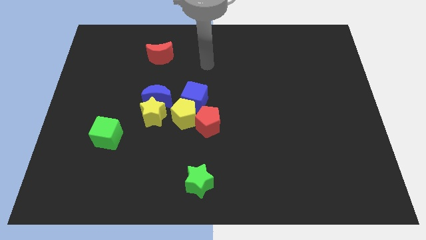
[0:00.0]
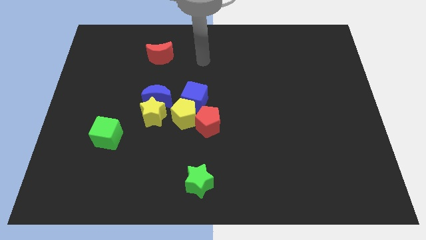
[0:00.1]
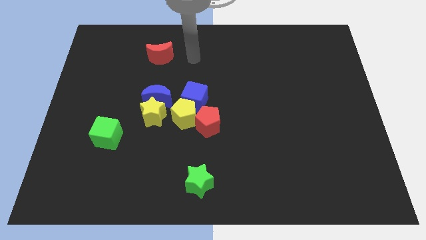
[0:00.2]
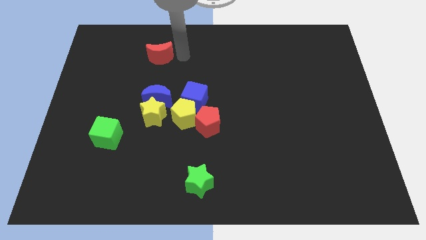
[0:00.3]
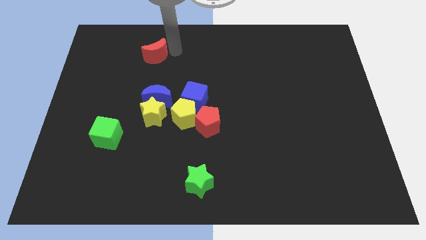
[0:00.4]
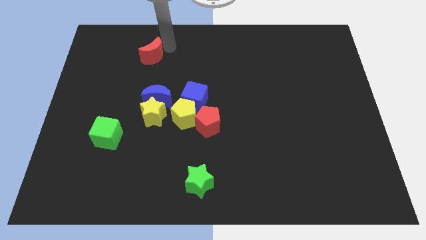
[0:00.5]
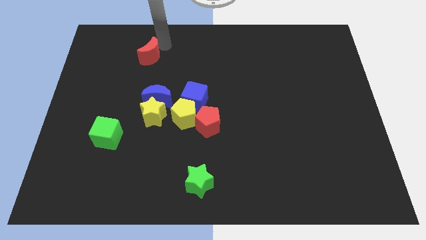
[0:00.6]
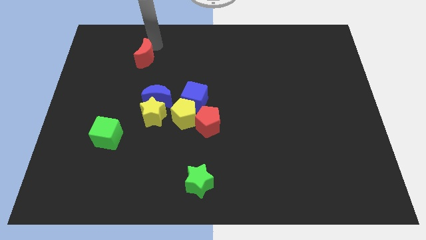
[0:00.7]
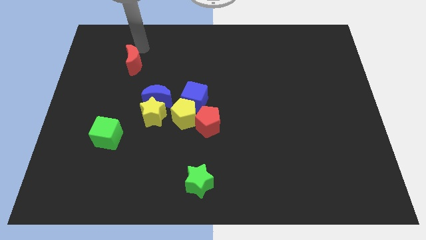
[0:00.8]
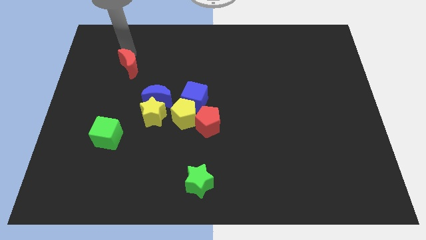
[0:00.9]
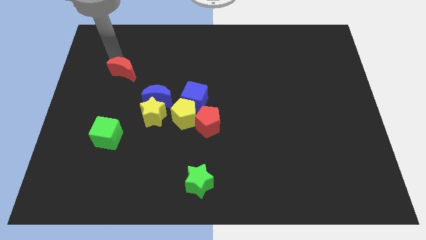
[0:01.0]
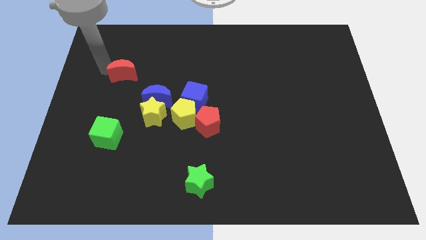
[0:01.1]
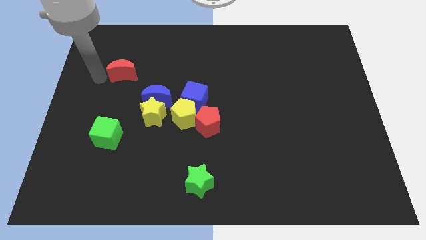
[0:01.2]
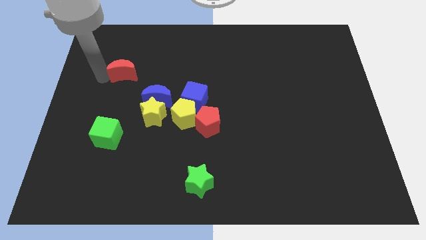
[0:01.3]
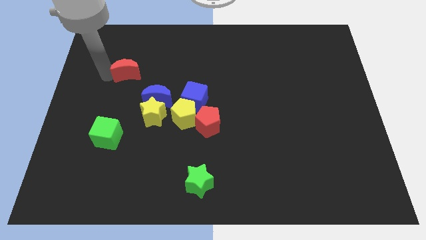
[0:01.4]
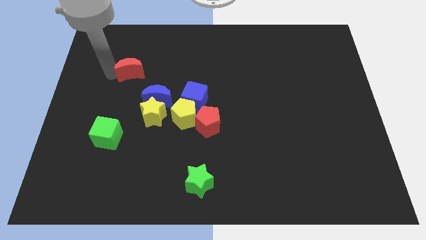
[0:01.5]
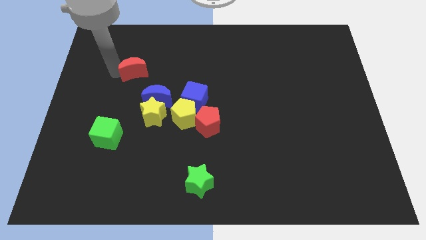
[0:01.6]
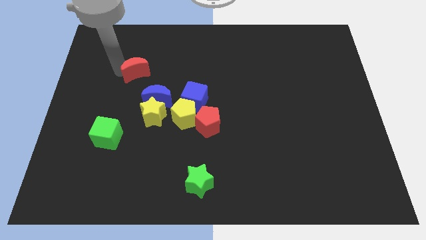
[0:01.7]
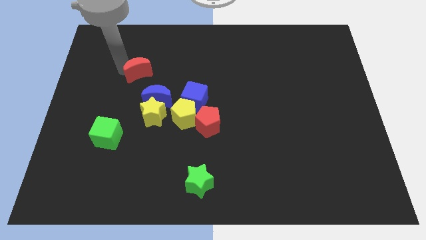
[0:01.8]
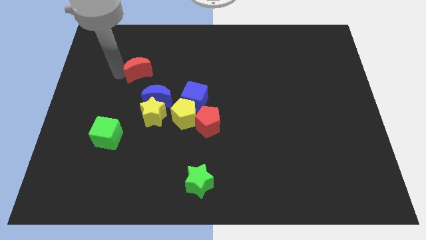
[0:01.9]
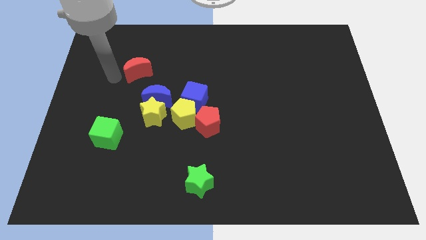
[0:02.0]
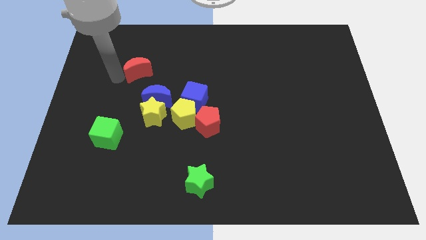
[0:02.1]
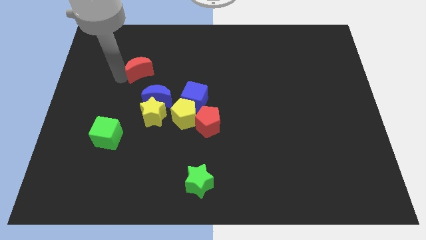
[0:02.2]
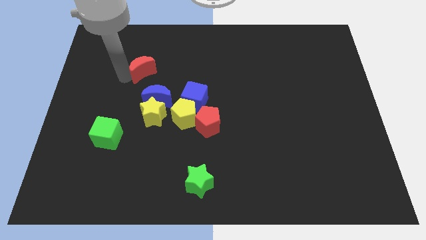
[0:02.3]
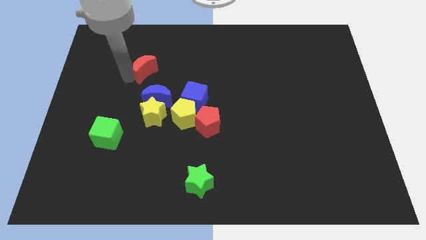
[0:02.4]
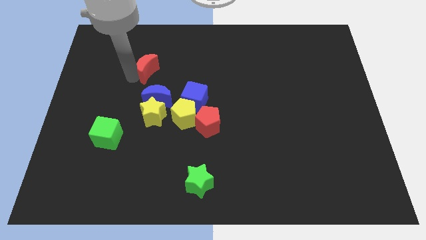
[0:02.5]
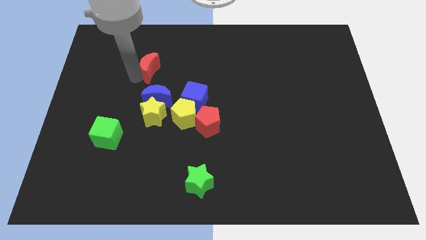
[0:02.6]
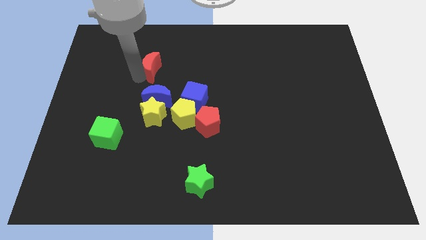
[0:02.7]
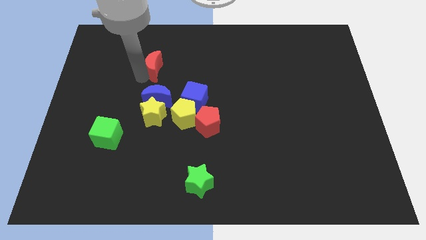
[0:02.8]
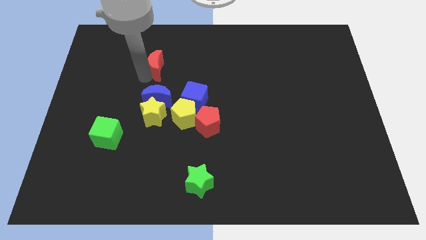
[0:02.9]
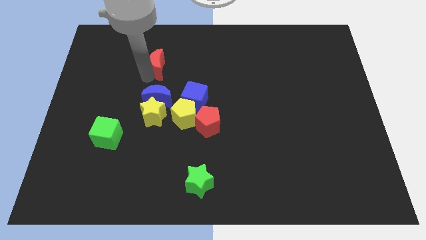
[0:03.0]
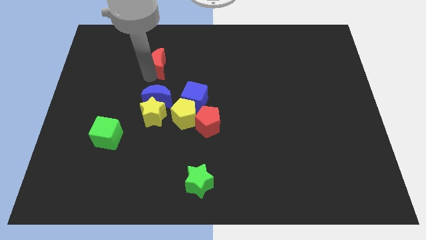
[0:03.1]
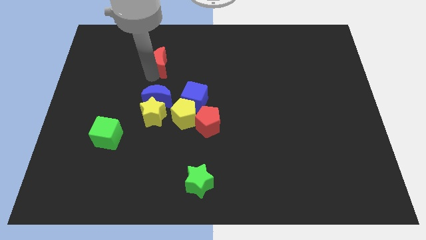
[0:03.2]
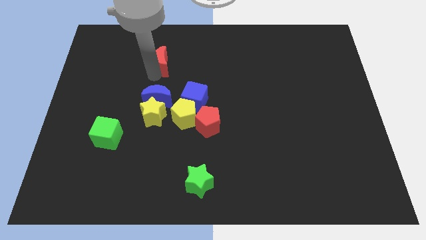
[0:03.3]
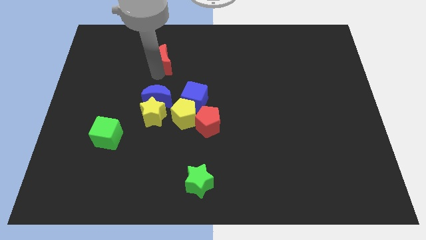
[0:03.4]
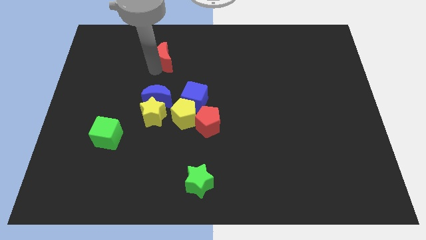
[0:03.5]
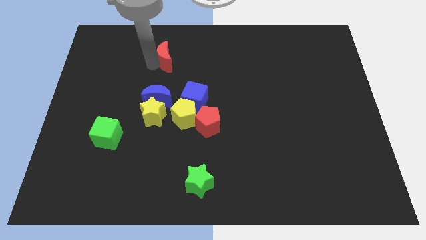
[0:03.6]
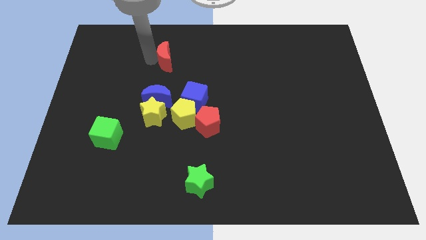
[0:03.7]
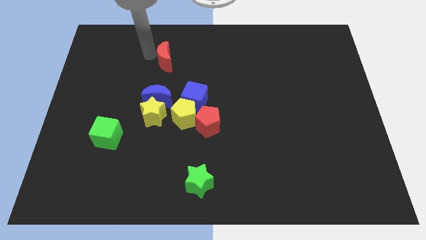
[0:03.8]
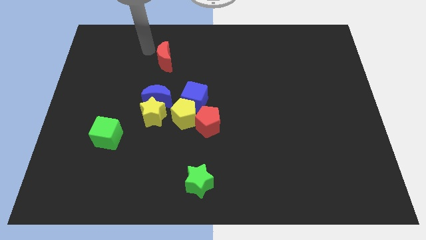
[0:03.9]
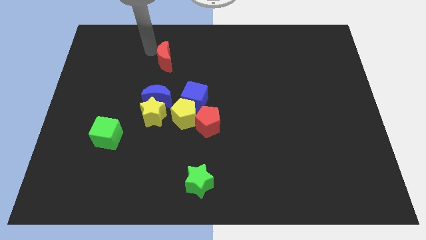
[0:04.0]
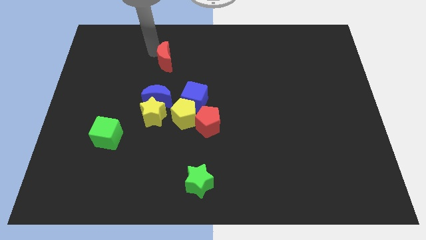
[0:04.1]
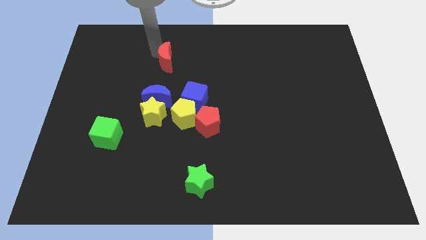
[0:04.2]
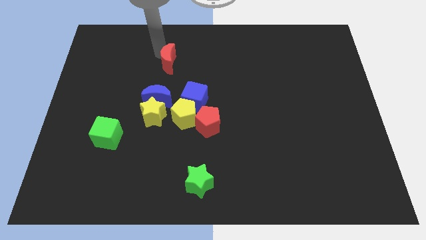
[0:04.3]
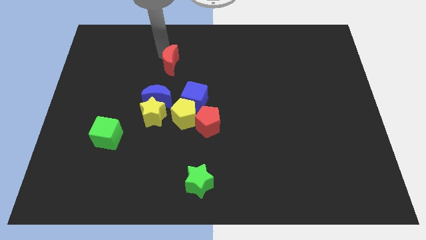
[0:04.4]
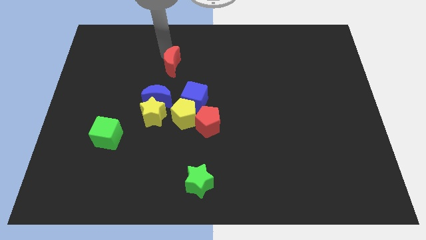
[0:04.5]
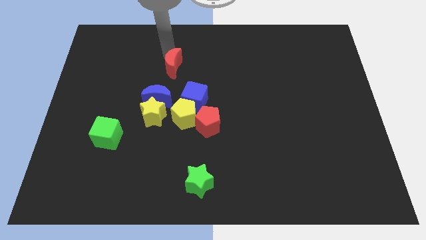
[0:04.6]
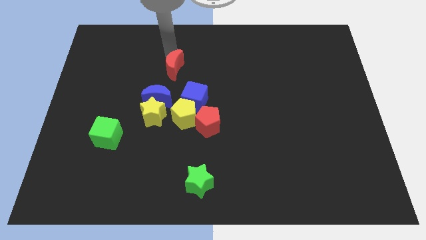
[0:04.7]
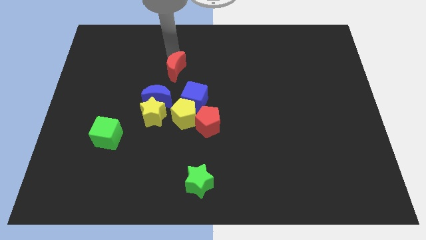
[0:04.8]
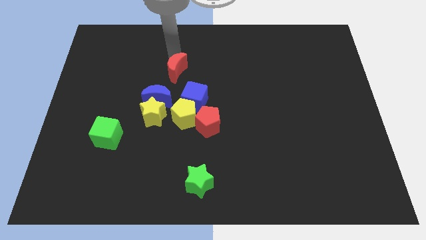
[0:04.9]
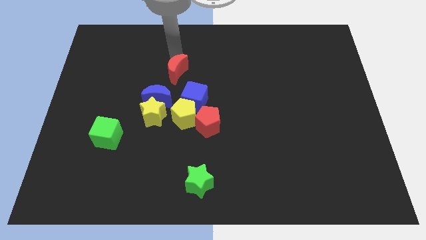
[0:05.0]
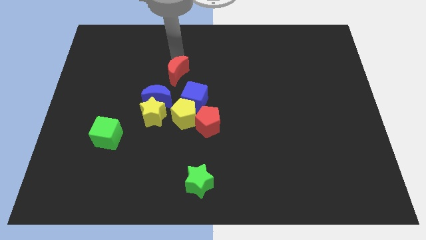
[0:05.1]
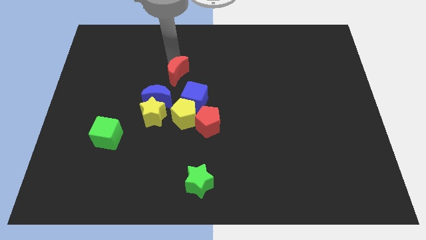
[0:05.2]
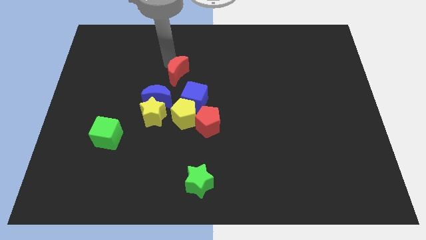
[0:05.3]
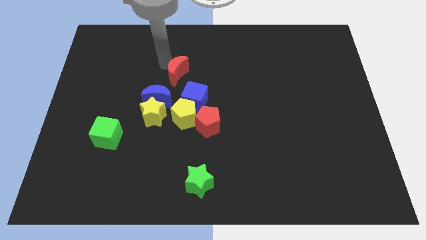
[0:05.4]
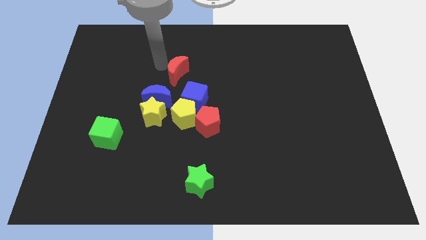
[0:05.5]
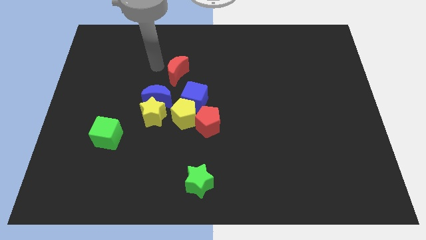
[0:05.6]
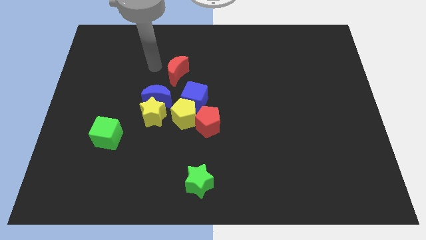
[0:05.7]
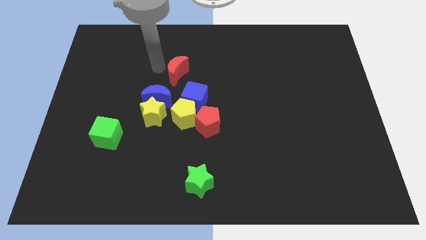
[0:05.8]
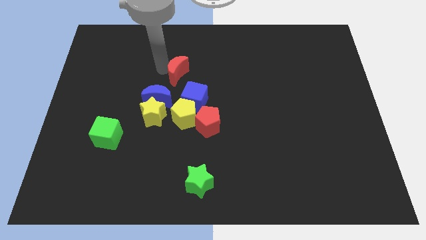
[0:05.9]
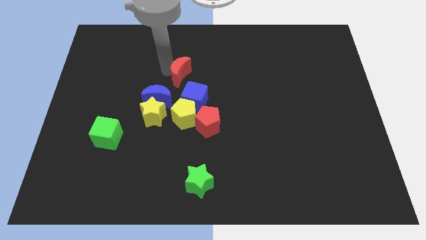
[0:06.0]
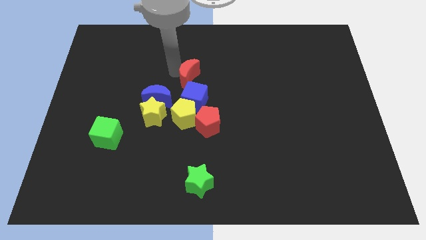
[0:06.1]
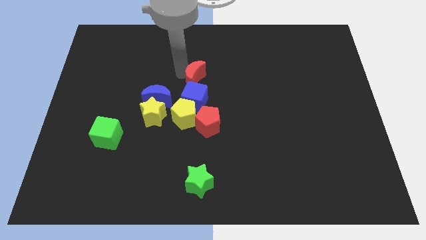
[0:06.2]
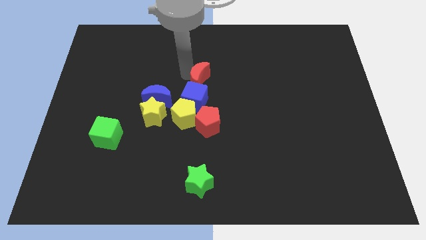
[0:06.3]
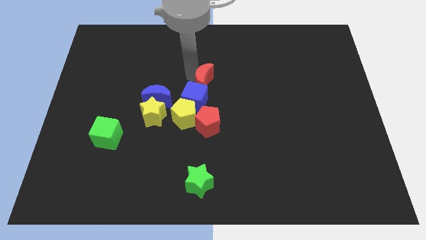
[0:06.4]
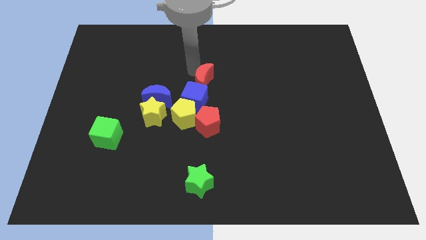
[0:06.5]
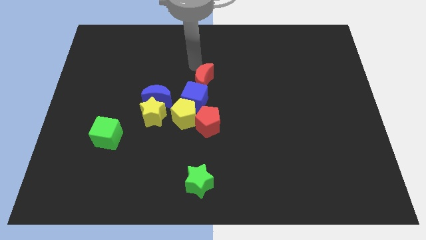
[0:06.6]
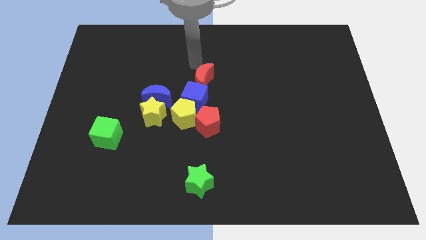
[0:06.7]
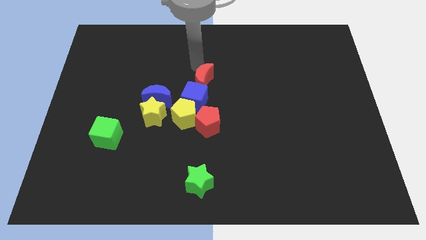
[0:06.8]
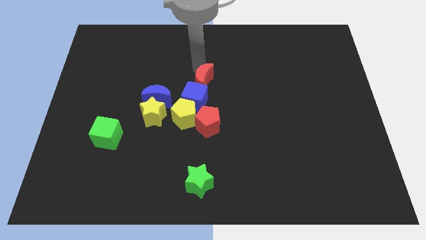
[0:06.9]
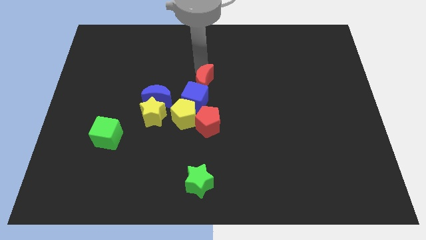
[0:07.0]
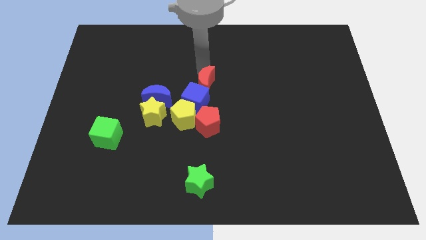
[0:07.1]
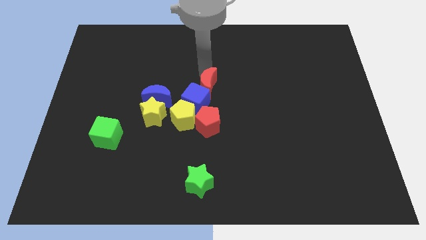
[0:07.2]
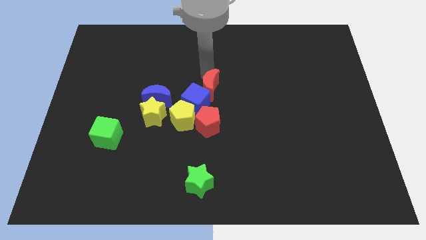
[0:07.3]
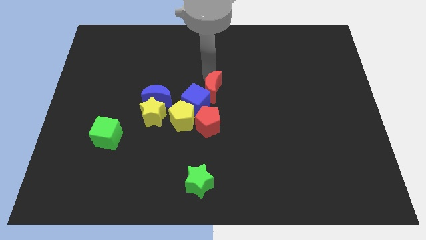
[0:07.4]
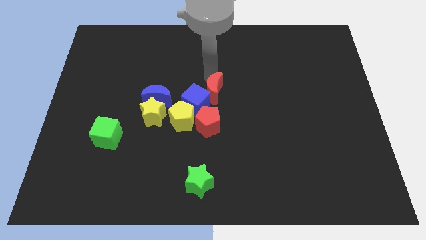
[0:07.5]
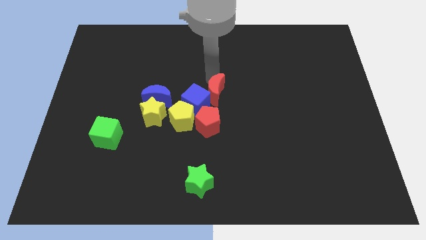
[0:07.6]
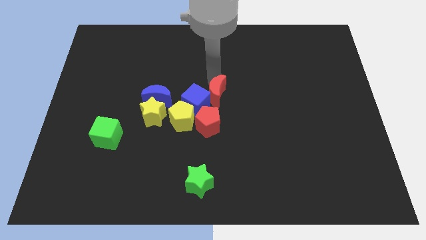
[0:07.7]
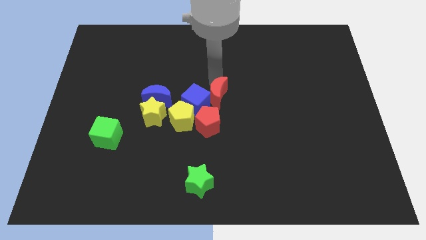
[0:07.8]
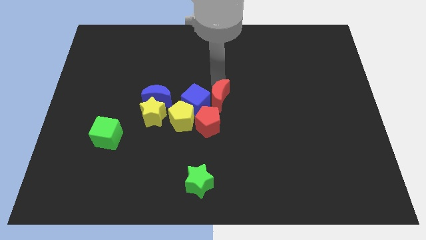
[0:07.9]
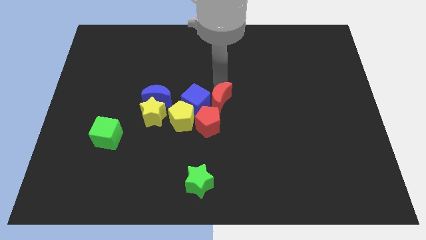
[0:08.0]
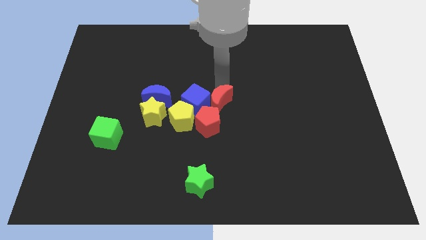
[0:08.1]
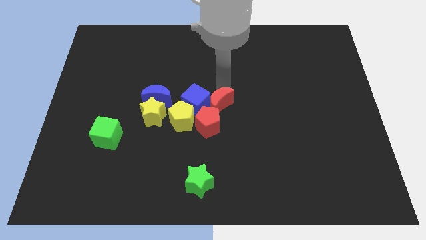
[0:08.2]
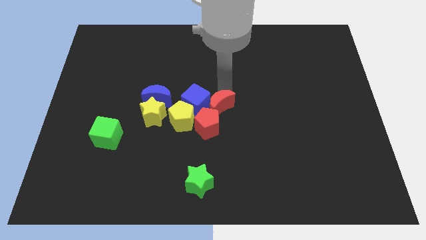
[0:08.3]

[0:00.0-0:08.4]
push the red moon to the red pentagon
